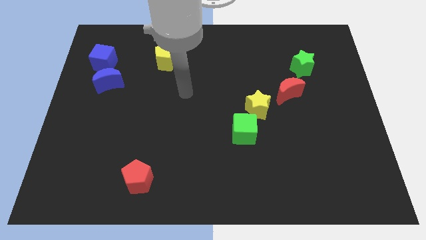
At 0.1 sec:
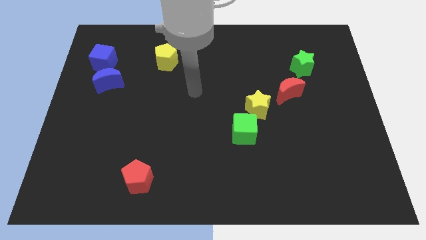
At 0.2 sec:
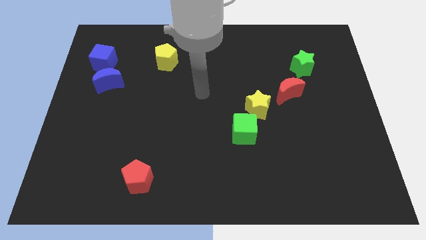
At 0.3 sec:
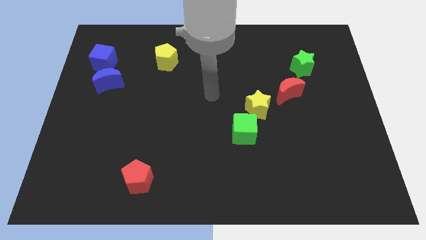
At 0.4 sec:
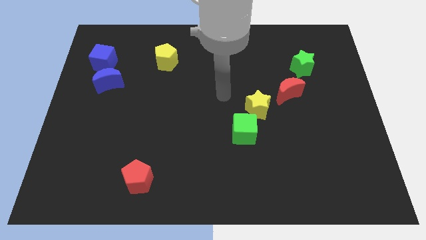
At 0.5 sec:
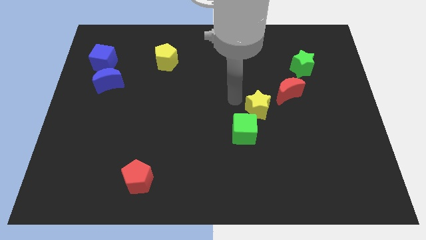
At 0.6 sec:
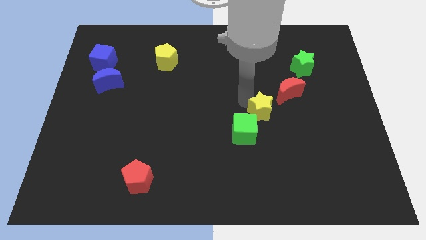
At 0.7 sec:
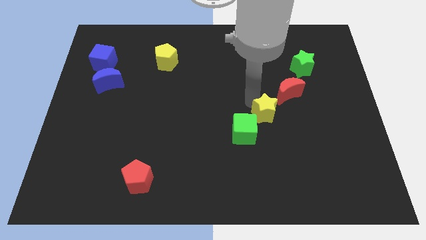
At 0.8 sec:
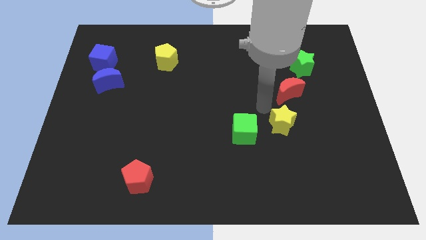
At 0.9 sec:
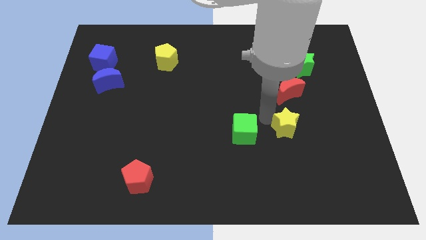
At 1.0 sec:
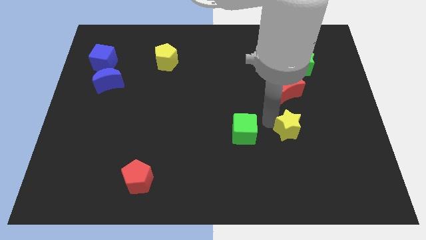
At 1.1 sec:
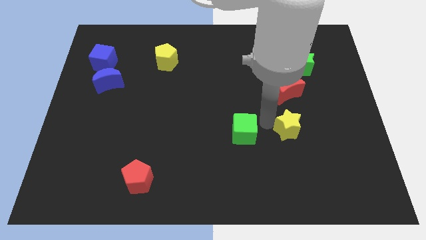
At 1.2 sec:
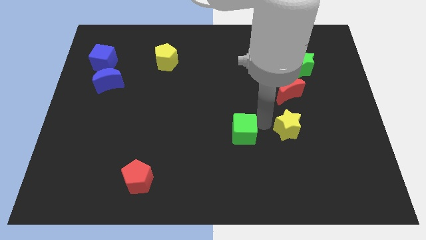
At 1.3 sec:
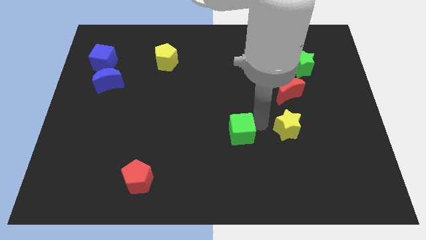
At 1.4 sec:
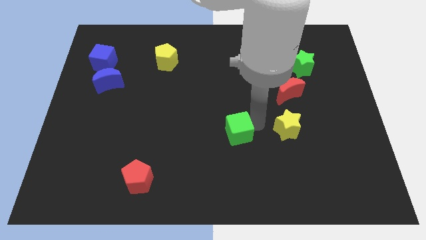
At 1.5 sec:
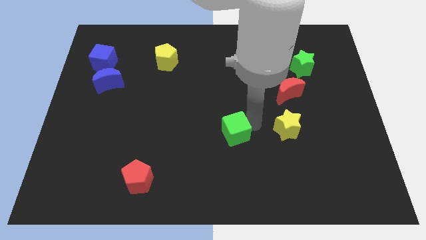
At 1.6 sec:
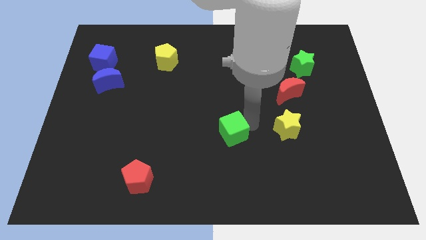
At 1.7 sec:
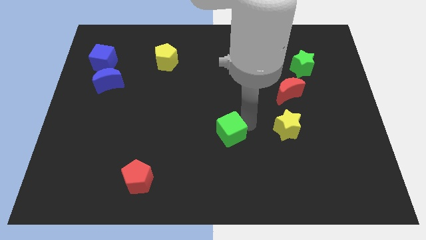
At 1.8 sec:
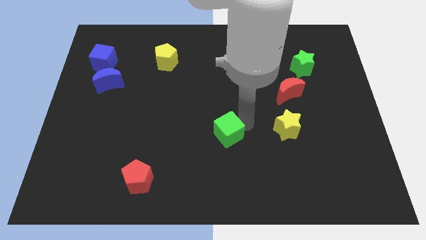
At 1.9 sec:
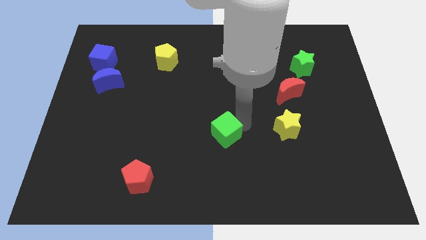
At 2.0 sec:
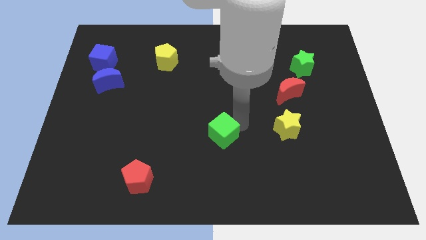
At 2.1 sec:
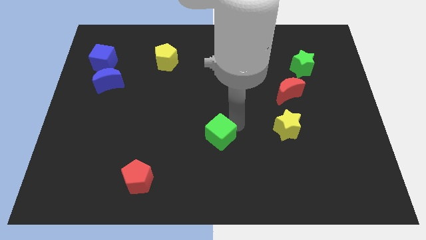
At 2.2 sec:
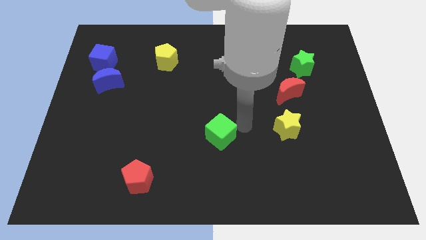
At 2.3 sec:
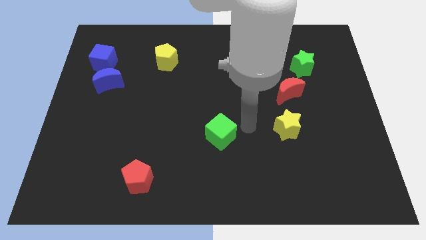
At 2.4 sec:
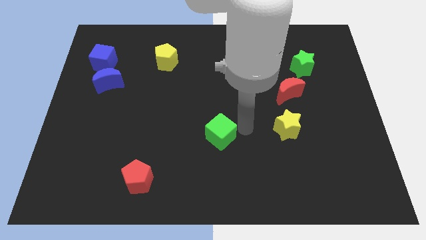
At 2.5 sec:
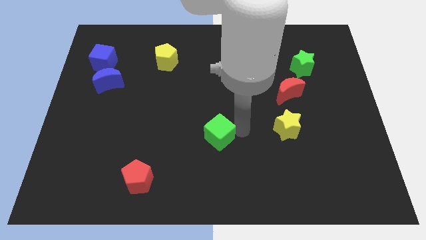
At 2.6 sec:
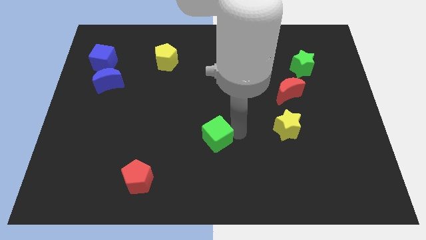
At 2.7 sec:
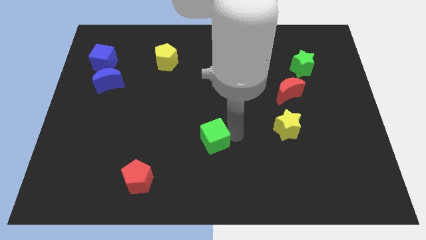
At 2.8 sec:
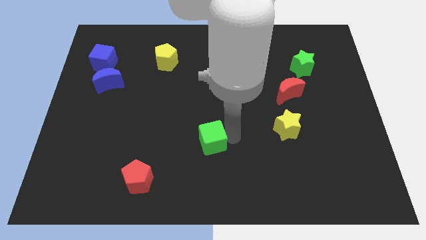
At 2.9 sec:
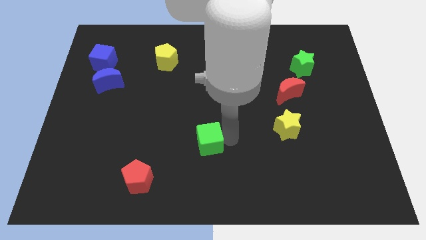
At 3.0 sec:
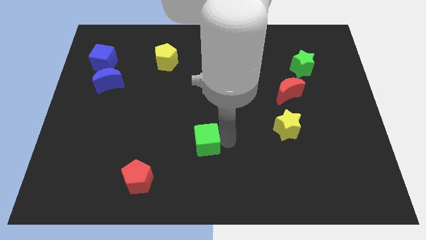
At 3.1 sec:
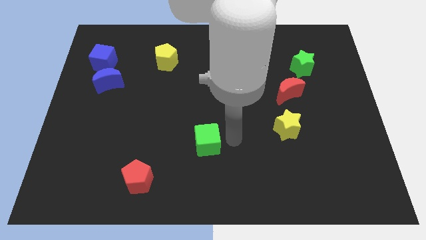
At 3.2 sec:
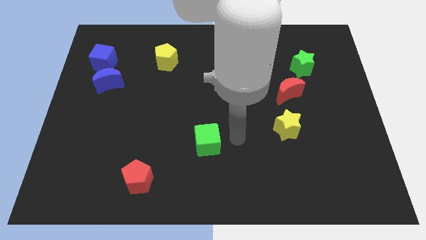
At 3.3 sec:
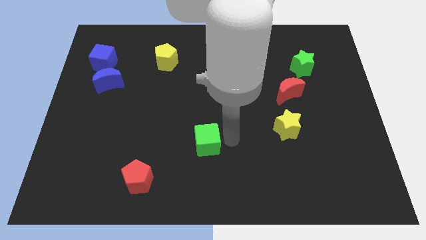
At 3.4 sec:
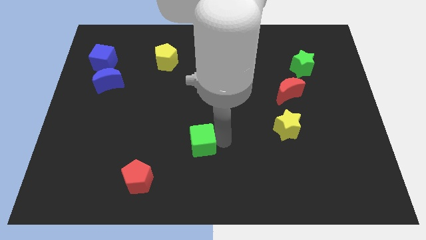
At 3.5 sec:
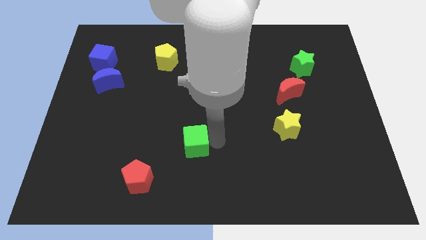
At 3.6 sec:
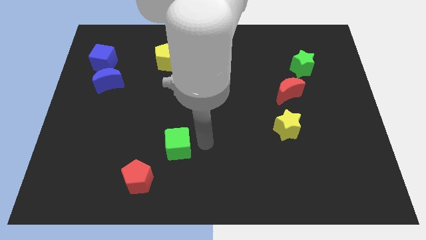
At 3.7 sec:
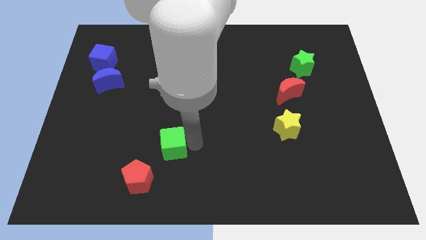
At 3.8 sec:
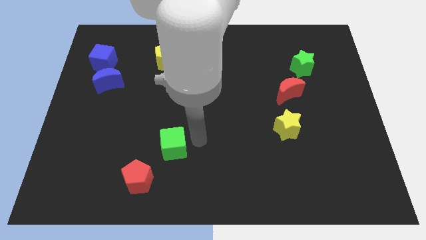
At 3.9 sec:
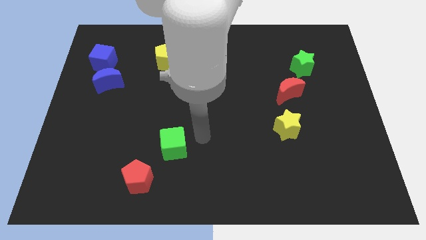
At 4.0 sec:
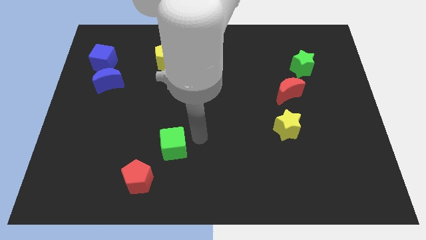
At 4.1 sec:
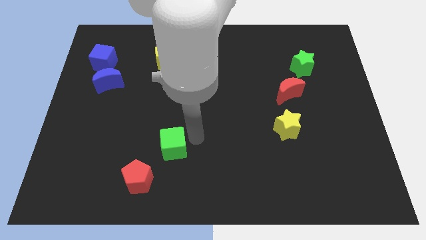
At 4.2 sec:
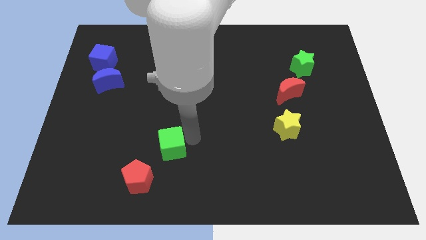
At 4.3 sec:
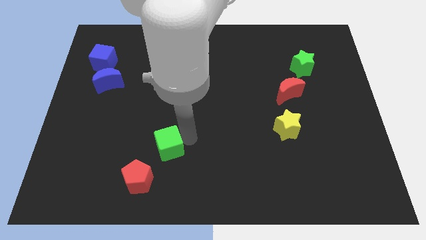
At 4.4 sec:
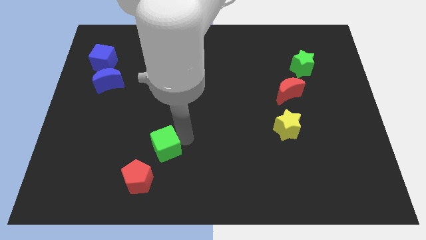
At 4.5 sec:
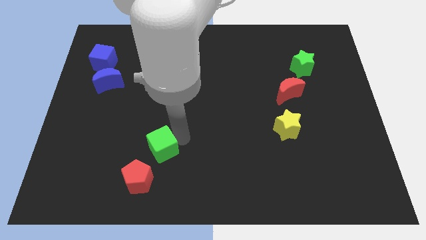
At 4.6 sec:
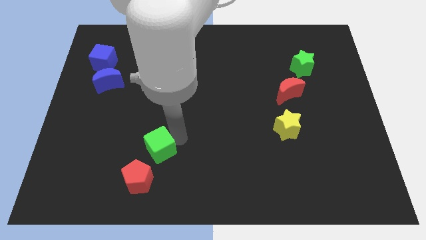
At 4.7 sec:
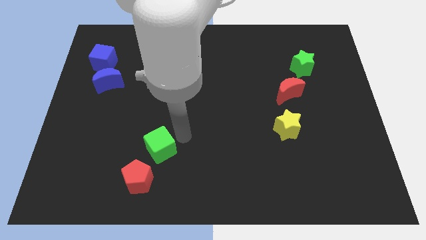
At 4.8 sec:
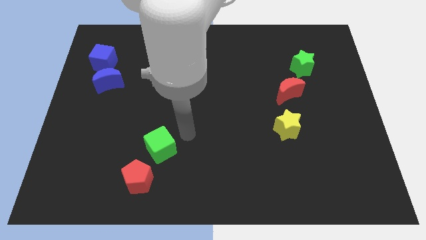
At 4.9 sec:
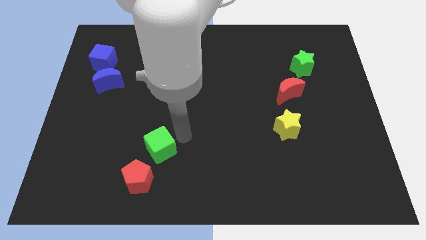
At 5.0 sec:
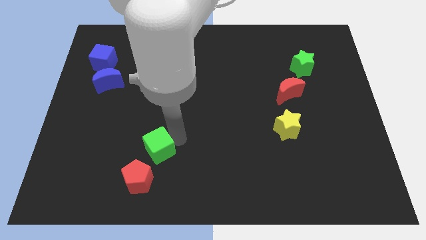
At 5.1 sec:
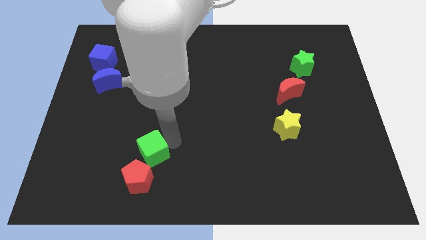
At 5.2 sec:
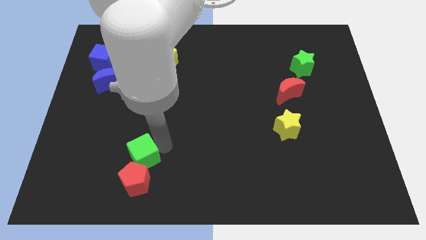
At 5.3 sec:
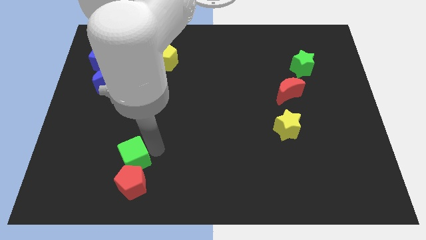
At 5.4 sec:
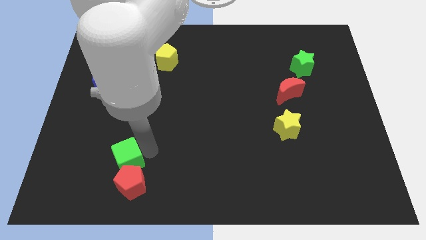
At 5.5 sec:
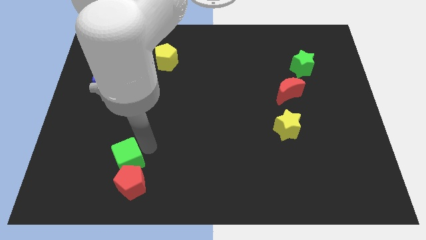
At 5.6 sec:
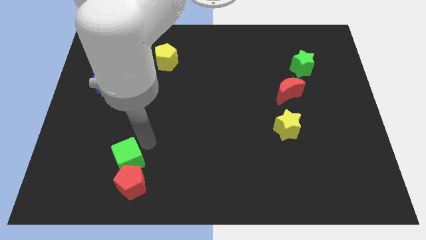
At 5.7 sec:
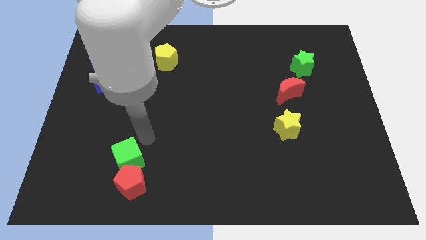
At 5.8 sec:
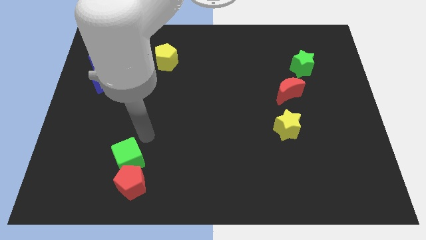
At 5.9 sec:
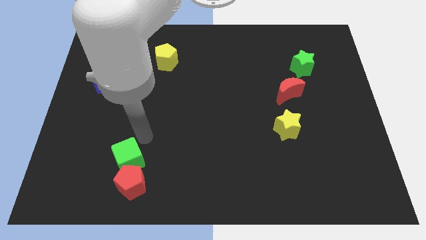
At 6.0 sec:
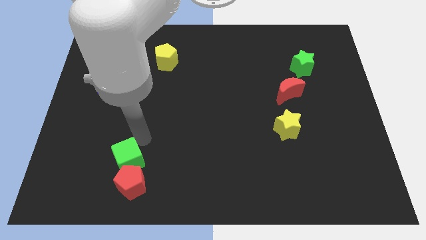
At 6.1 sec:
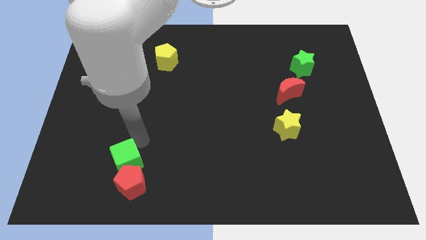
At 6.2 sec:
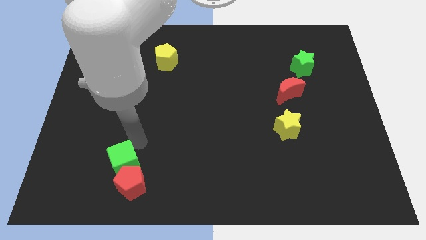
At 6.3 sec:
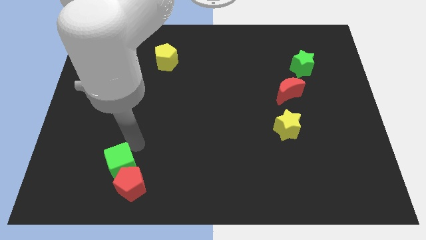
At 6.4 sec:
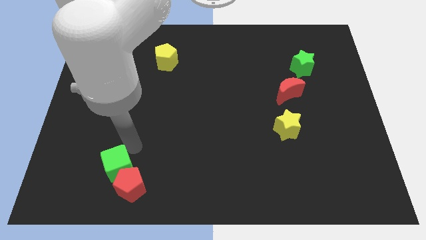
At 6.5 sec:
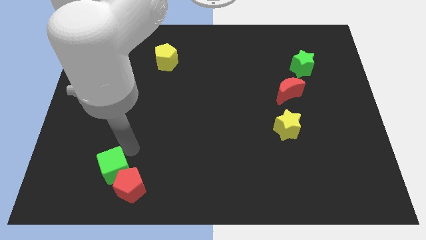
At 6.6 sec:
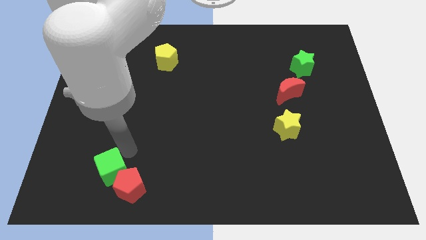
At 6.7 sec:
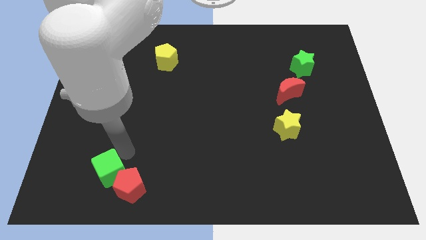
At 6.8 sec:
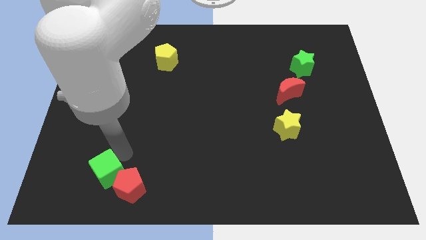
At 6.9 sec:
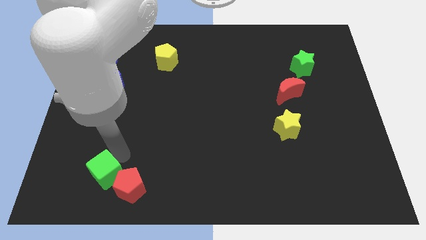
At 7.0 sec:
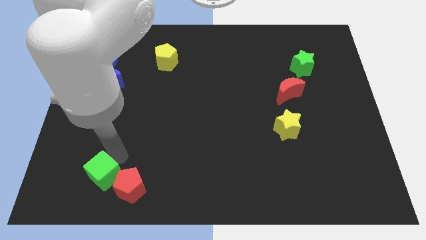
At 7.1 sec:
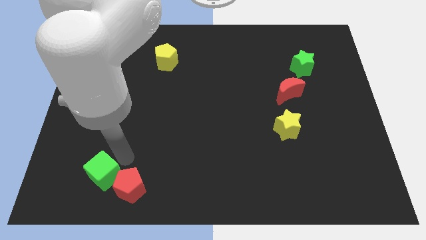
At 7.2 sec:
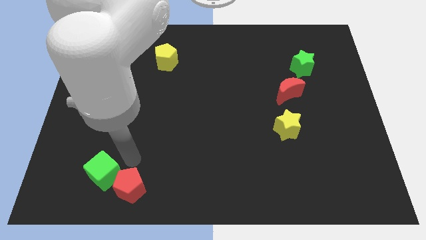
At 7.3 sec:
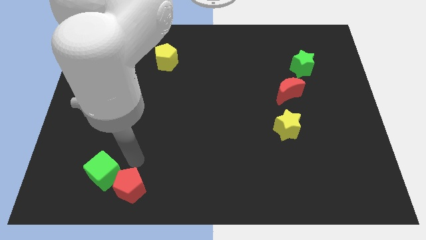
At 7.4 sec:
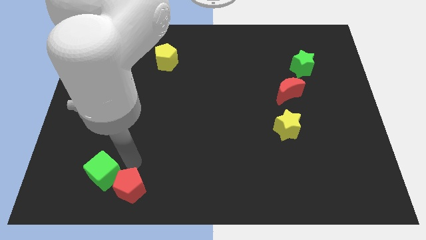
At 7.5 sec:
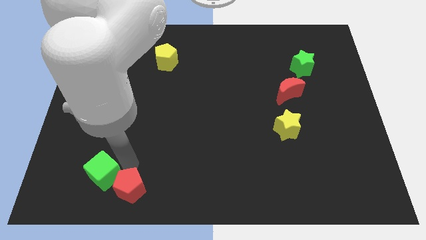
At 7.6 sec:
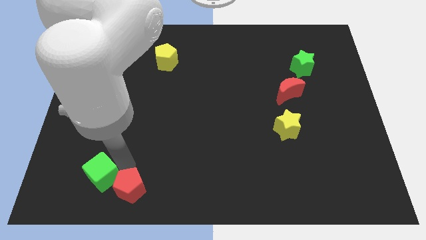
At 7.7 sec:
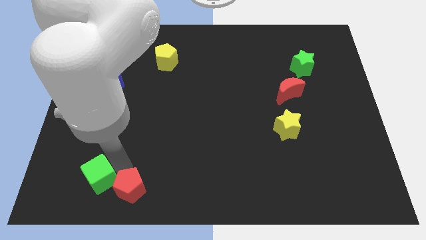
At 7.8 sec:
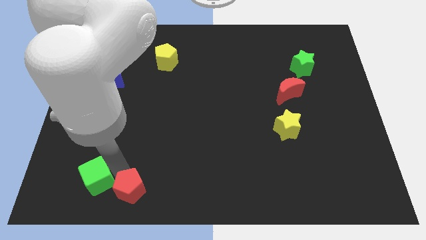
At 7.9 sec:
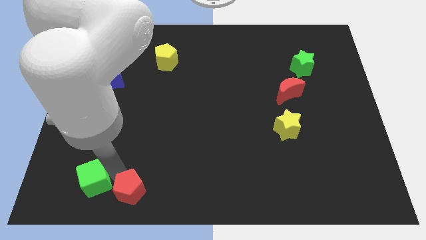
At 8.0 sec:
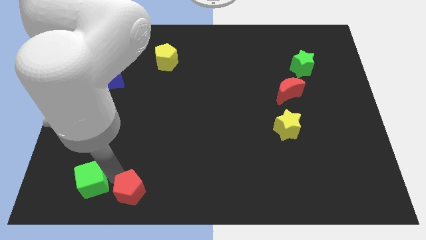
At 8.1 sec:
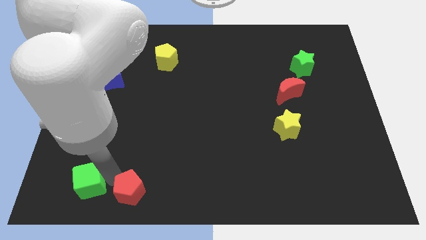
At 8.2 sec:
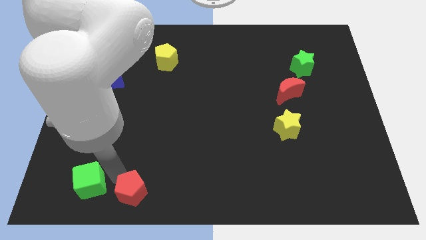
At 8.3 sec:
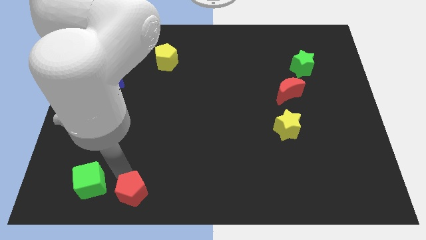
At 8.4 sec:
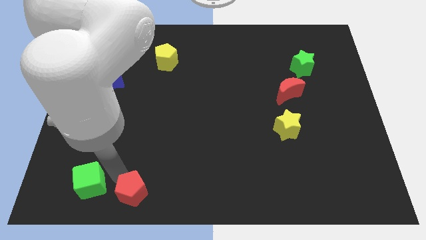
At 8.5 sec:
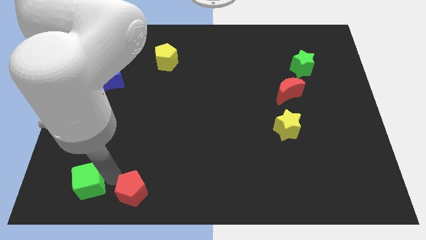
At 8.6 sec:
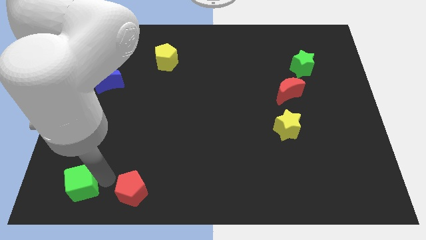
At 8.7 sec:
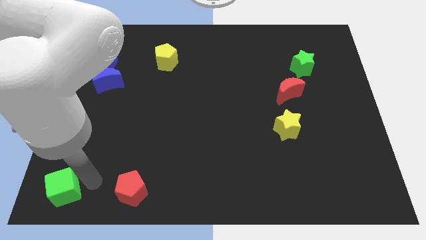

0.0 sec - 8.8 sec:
move the green cube to the bottom left corner
